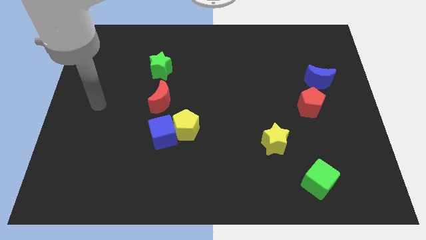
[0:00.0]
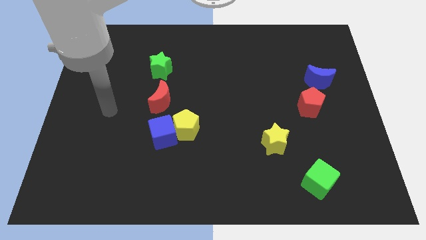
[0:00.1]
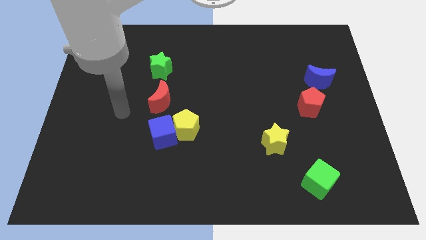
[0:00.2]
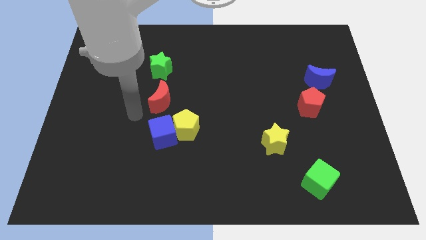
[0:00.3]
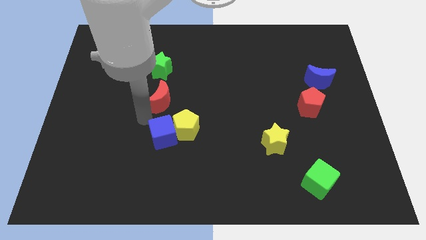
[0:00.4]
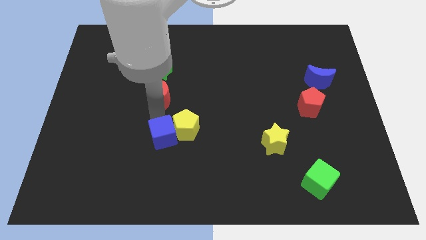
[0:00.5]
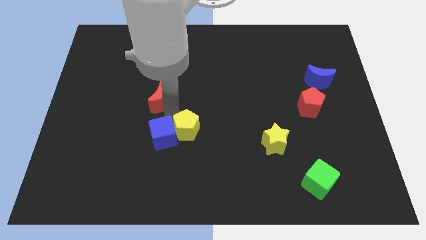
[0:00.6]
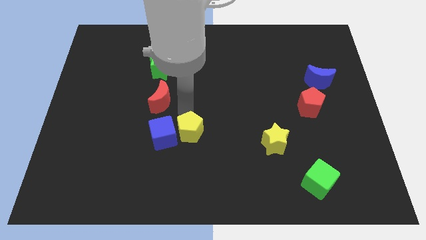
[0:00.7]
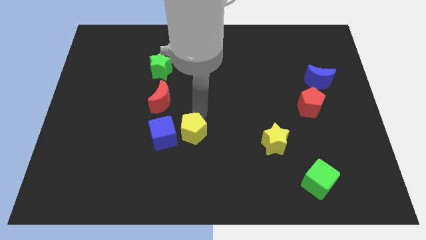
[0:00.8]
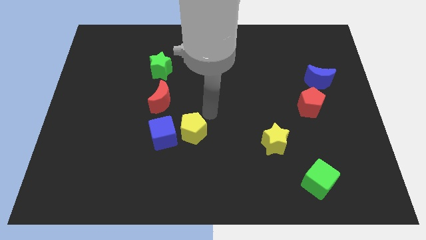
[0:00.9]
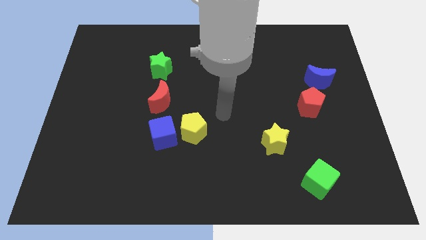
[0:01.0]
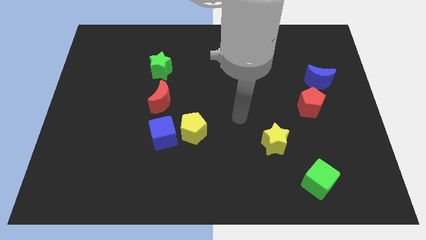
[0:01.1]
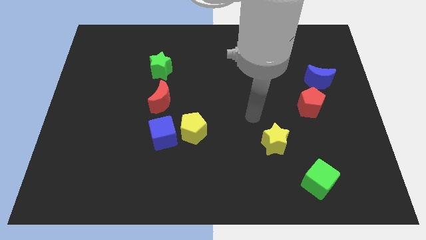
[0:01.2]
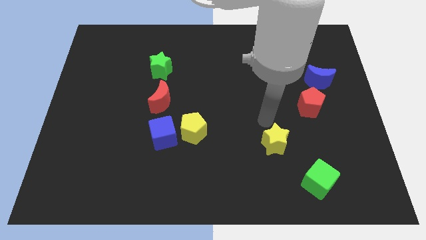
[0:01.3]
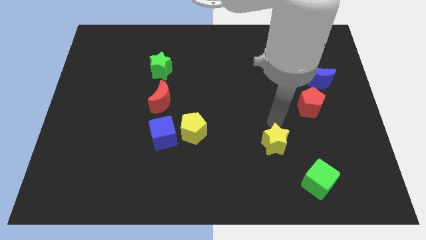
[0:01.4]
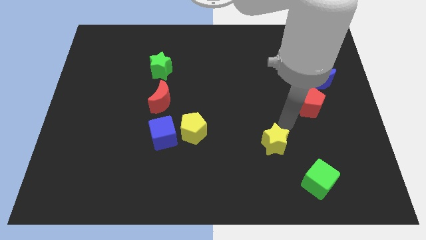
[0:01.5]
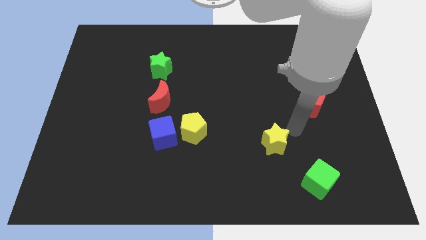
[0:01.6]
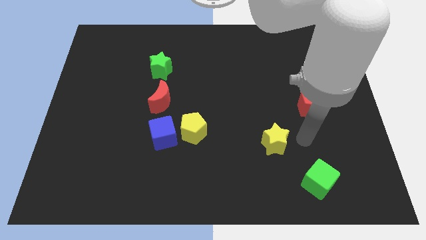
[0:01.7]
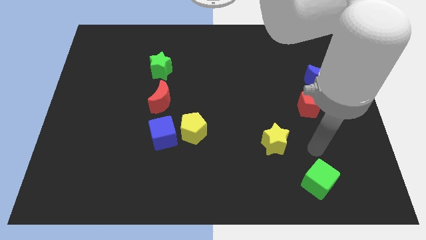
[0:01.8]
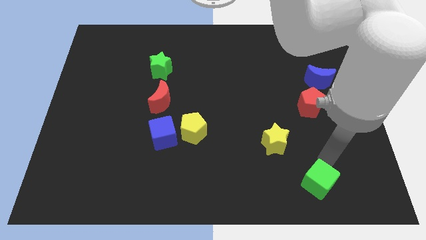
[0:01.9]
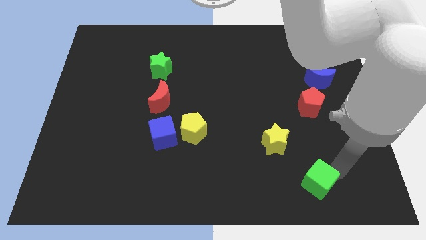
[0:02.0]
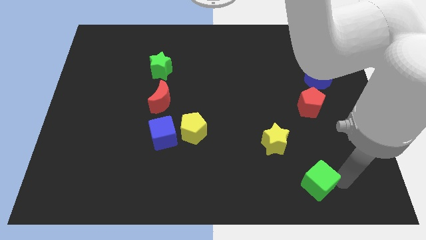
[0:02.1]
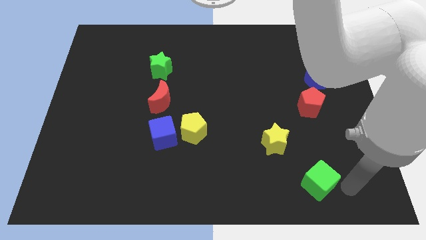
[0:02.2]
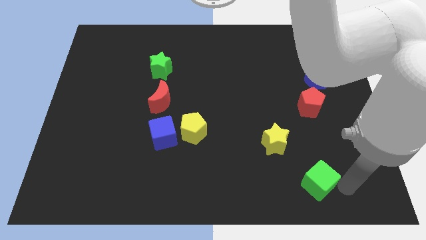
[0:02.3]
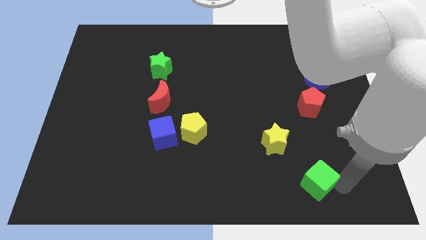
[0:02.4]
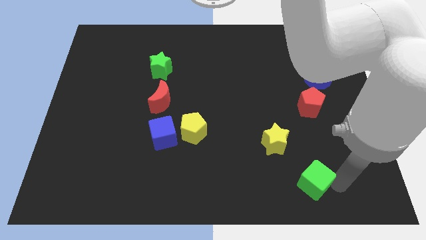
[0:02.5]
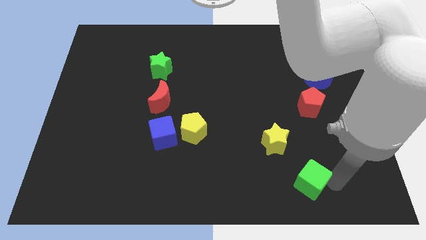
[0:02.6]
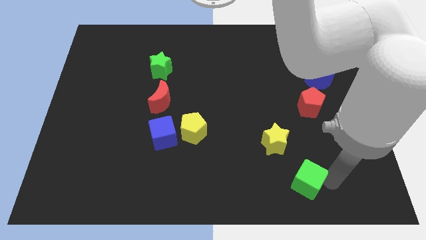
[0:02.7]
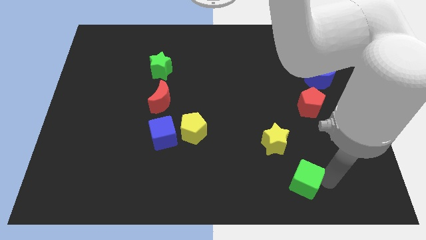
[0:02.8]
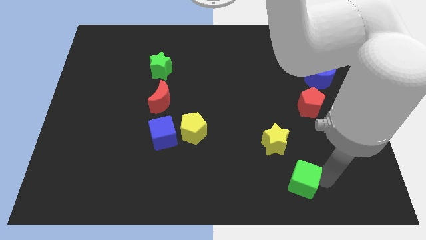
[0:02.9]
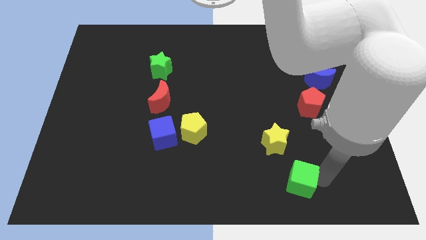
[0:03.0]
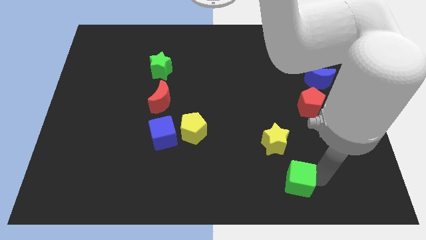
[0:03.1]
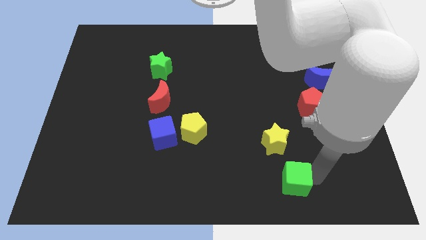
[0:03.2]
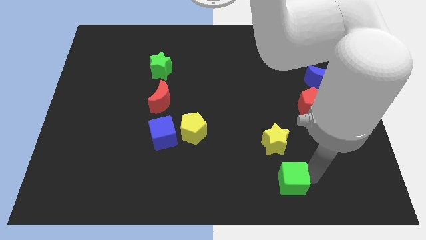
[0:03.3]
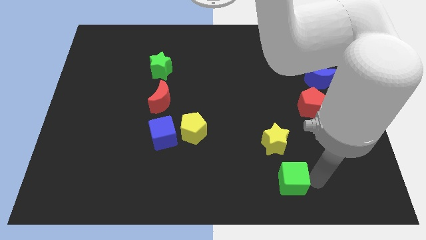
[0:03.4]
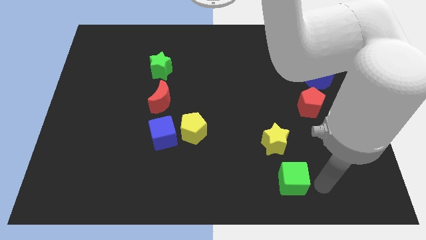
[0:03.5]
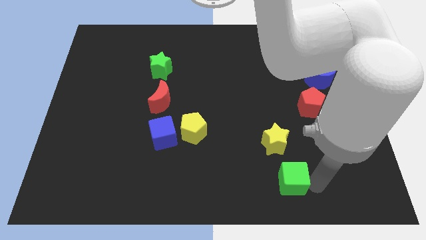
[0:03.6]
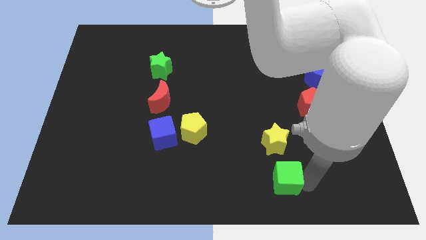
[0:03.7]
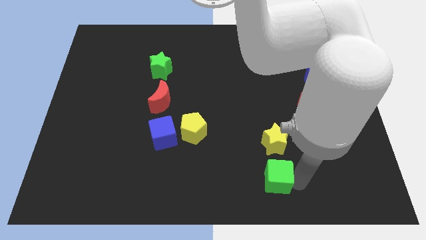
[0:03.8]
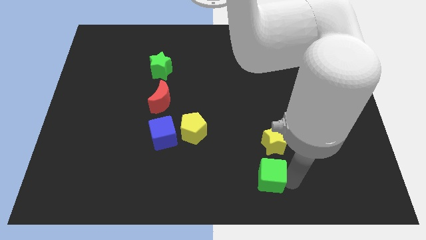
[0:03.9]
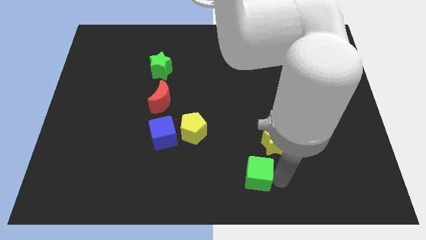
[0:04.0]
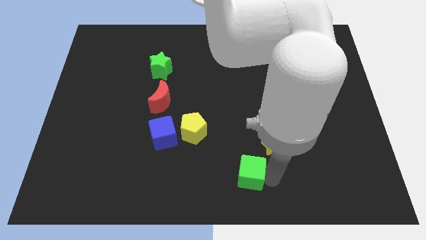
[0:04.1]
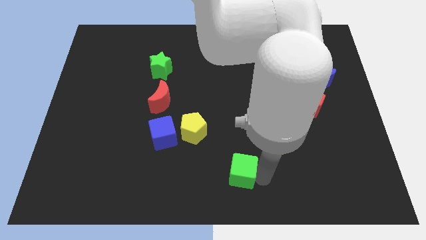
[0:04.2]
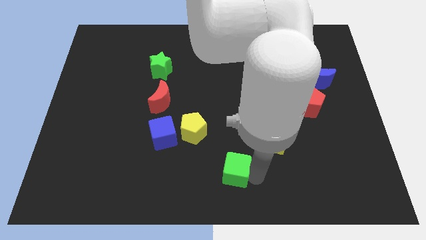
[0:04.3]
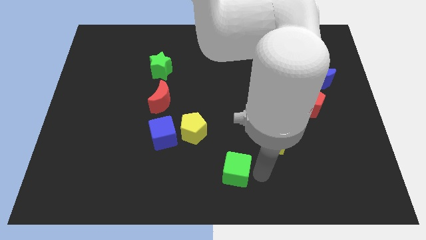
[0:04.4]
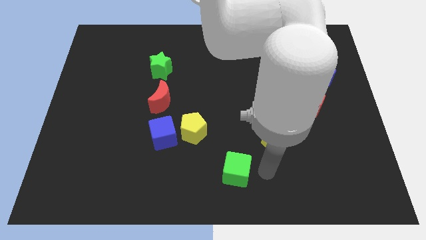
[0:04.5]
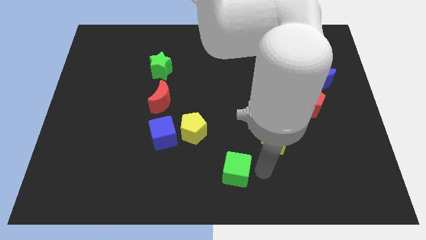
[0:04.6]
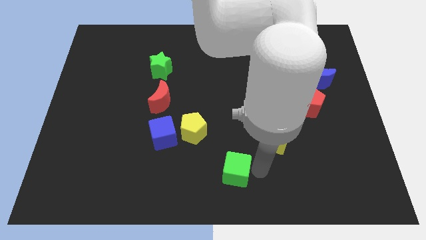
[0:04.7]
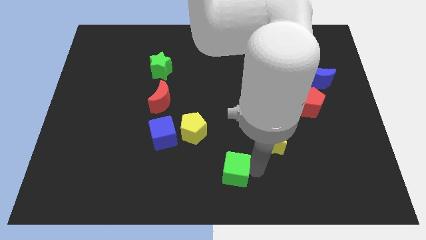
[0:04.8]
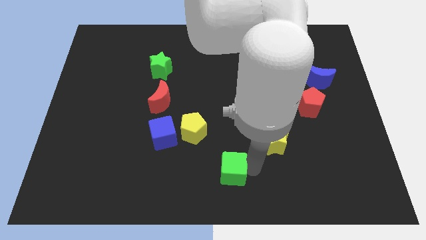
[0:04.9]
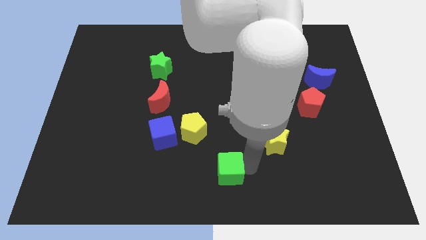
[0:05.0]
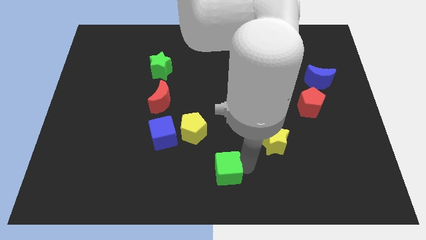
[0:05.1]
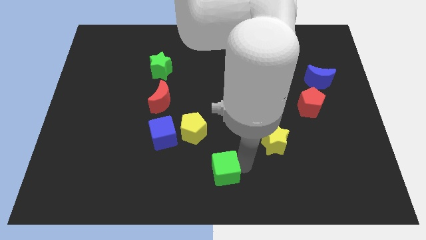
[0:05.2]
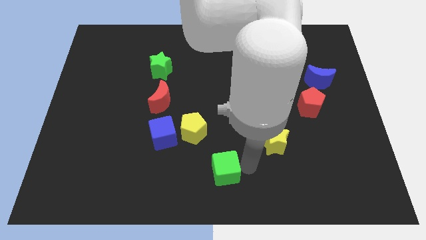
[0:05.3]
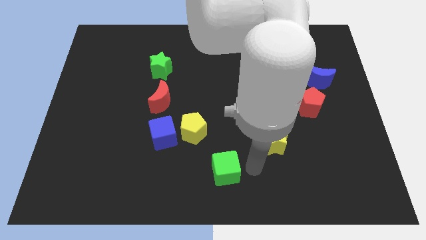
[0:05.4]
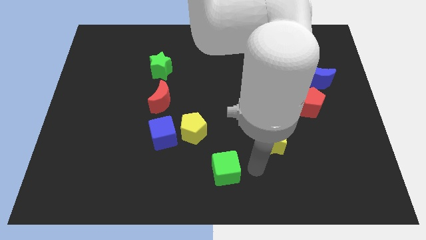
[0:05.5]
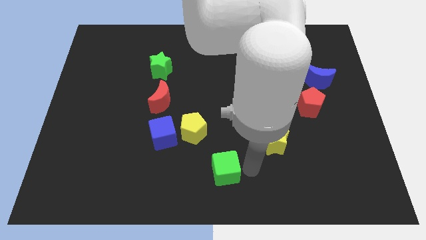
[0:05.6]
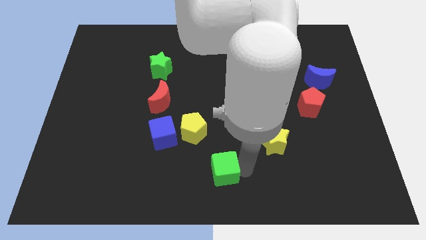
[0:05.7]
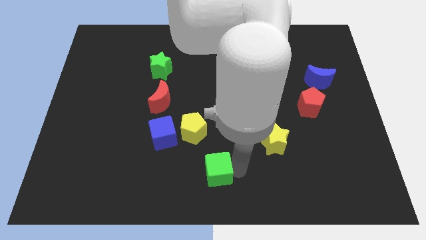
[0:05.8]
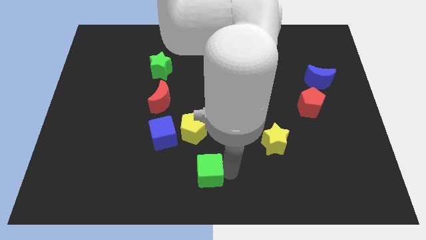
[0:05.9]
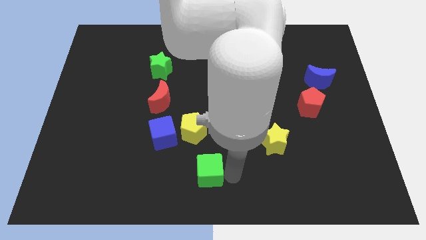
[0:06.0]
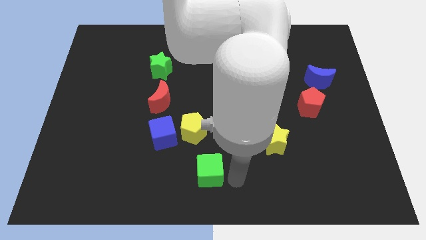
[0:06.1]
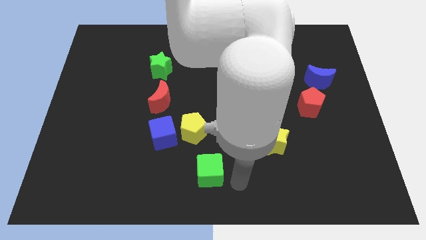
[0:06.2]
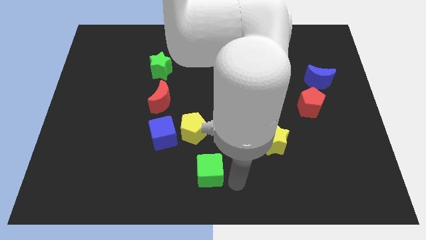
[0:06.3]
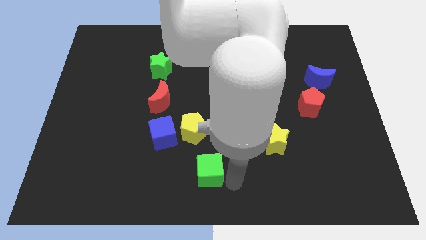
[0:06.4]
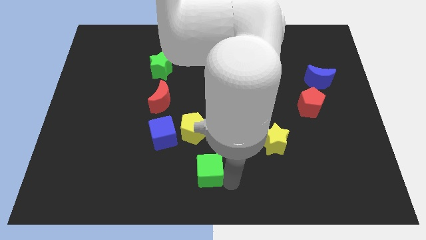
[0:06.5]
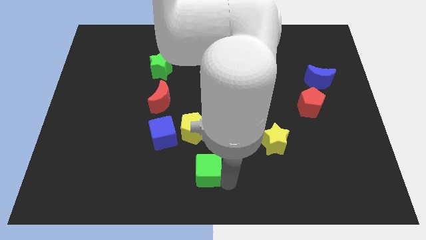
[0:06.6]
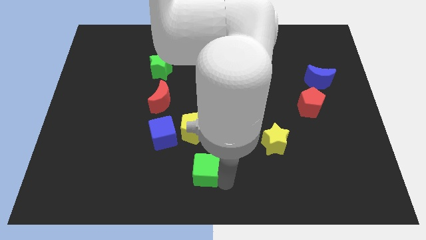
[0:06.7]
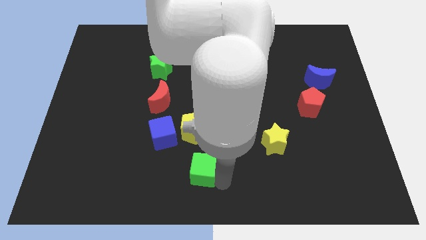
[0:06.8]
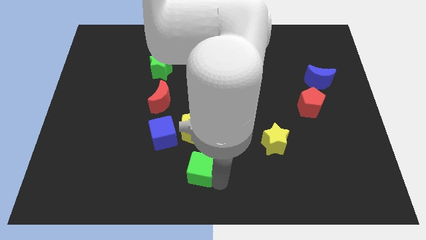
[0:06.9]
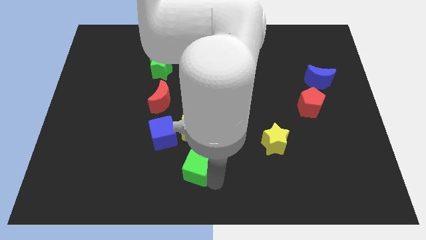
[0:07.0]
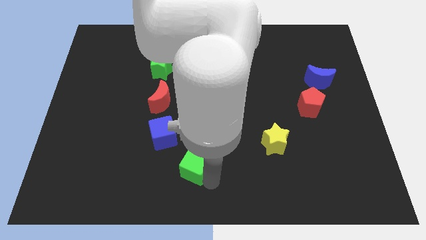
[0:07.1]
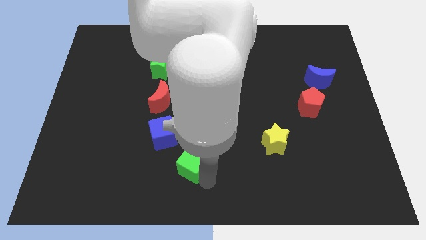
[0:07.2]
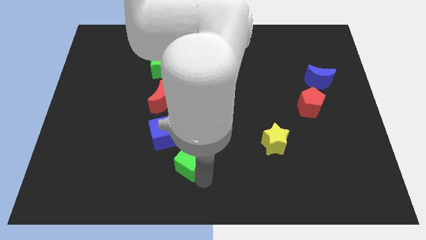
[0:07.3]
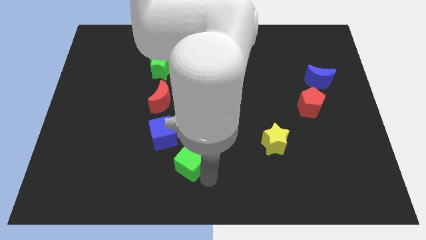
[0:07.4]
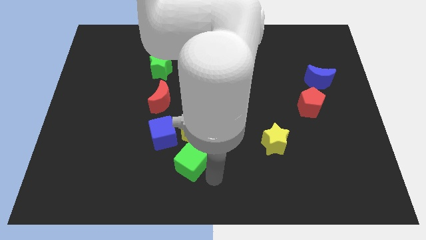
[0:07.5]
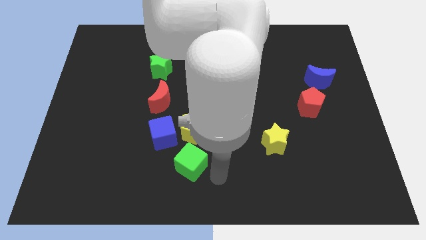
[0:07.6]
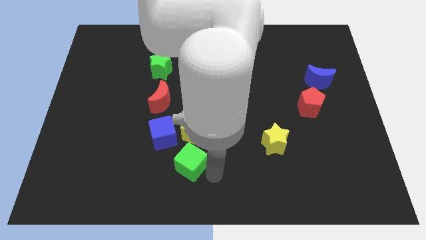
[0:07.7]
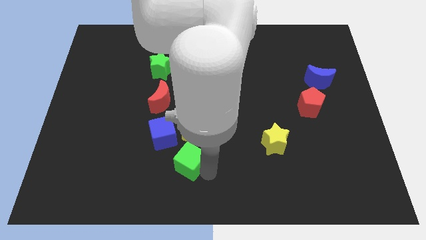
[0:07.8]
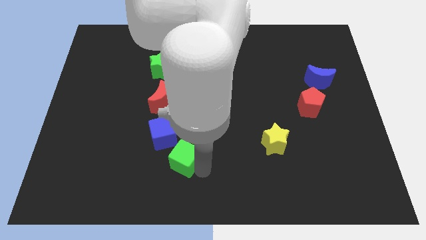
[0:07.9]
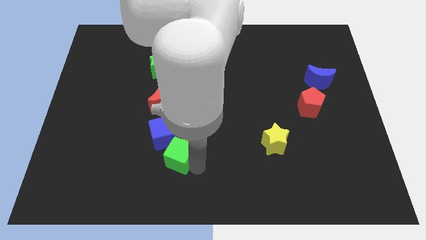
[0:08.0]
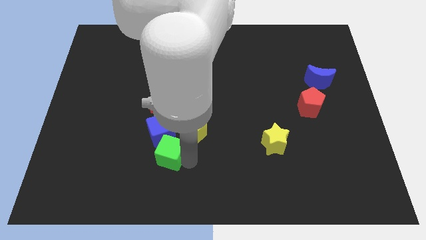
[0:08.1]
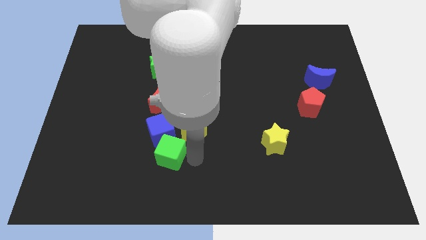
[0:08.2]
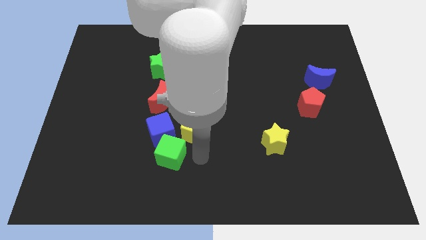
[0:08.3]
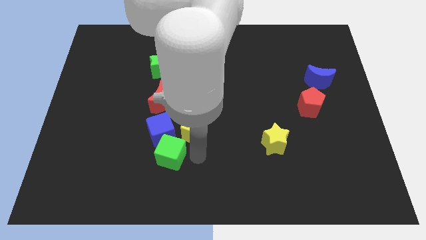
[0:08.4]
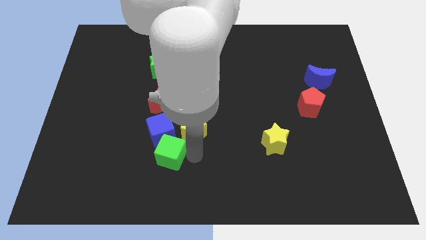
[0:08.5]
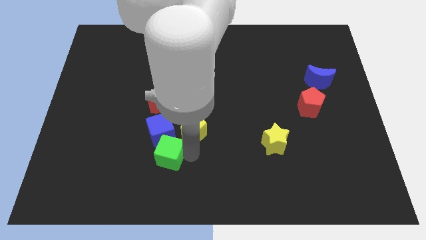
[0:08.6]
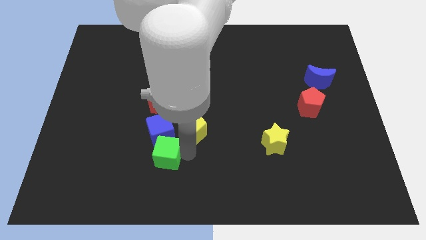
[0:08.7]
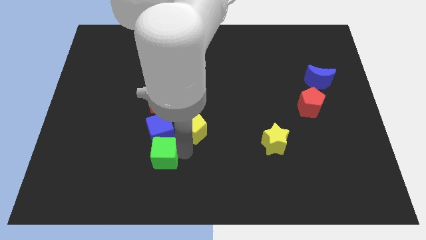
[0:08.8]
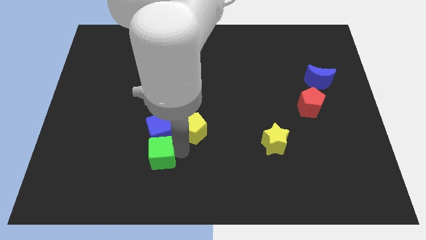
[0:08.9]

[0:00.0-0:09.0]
move the green cube diagonally down and to the left of the blue cube
